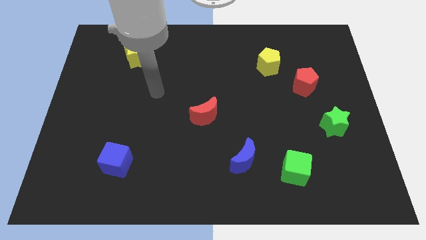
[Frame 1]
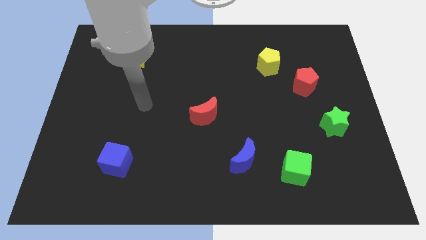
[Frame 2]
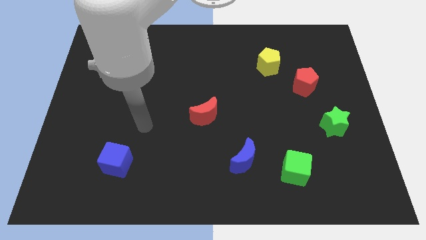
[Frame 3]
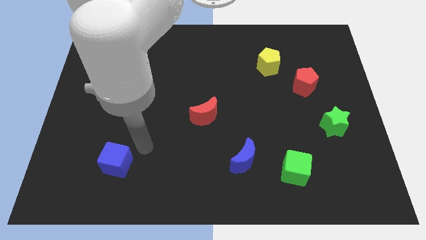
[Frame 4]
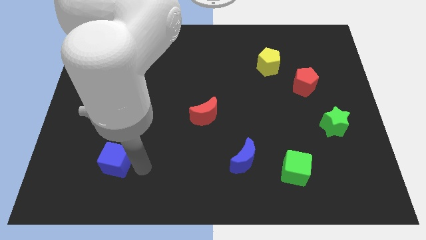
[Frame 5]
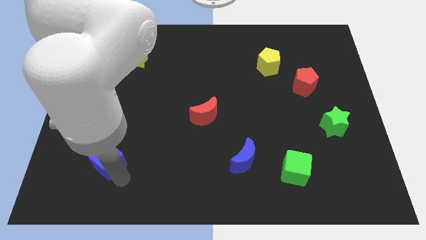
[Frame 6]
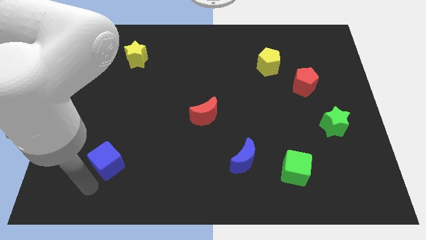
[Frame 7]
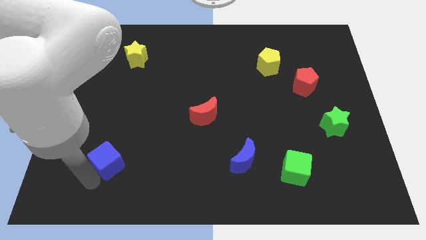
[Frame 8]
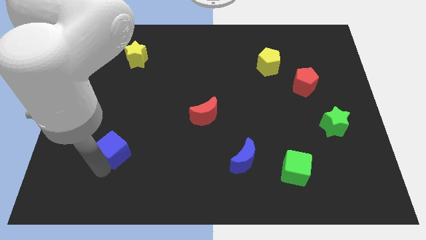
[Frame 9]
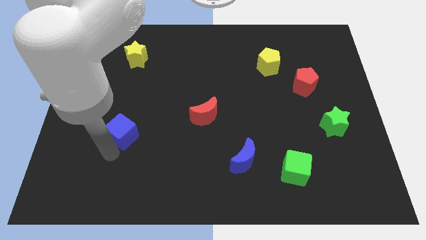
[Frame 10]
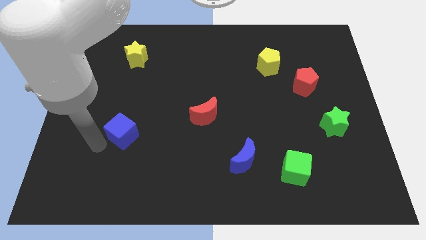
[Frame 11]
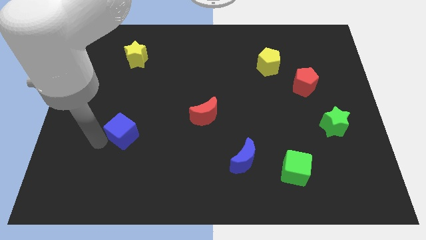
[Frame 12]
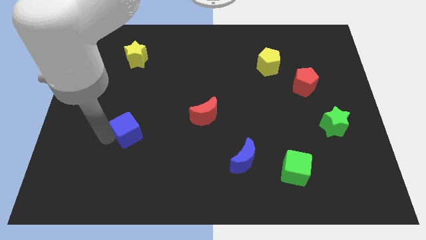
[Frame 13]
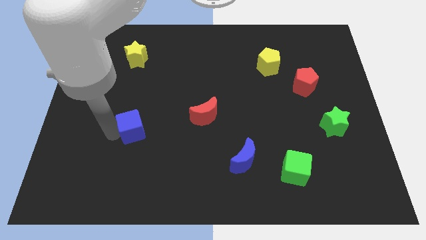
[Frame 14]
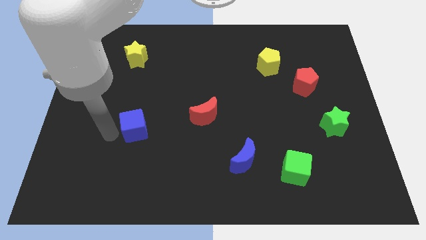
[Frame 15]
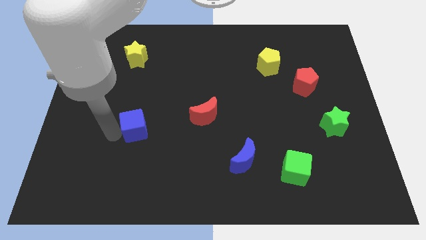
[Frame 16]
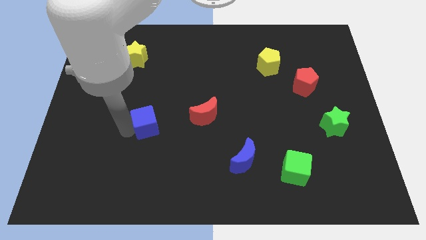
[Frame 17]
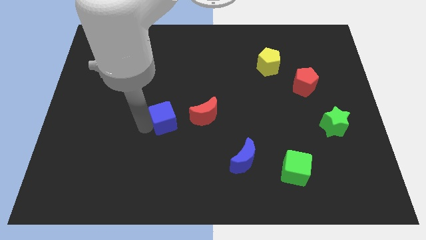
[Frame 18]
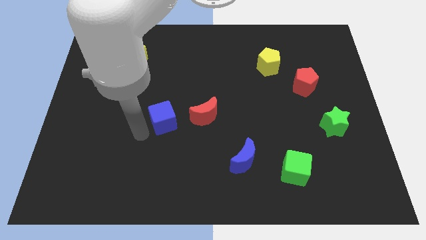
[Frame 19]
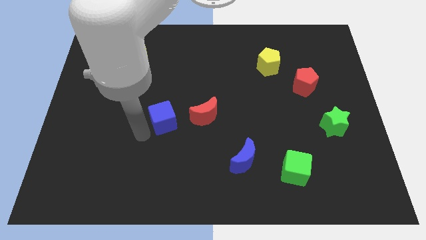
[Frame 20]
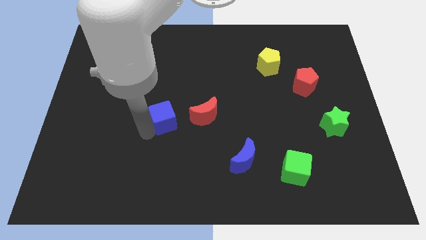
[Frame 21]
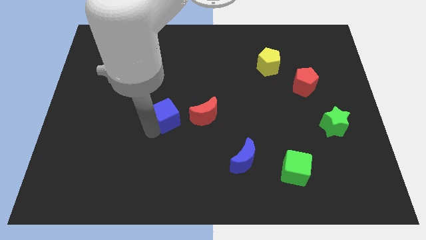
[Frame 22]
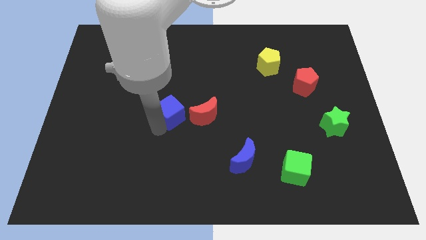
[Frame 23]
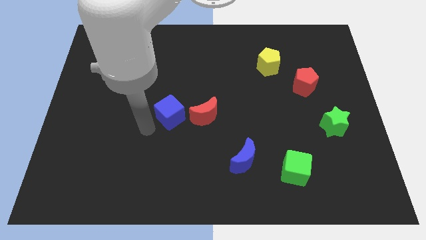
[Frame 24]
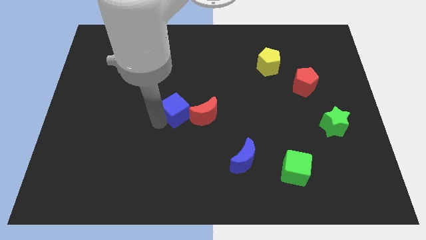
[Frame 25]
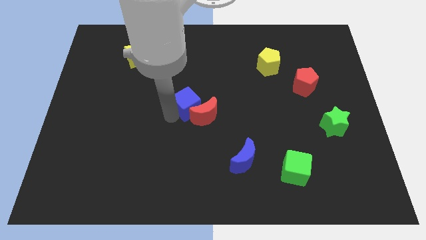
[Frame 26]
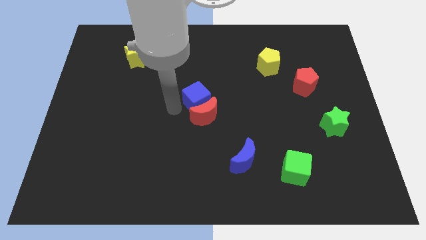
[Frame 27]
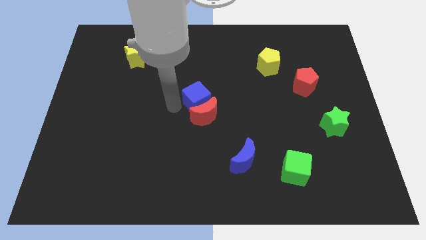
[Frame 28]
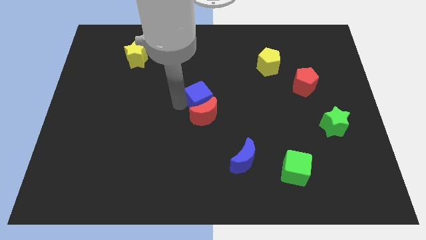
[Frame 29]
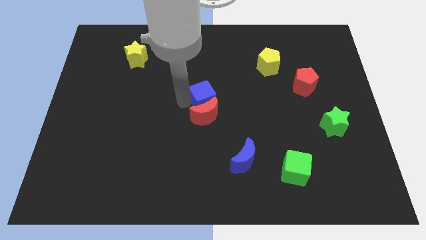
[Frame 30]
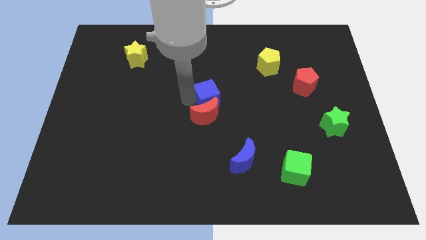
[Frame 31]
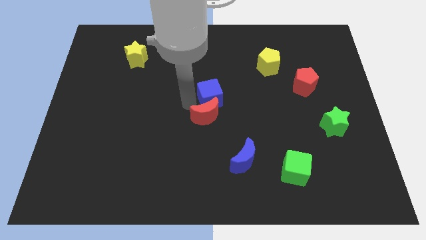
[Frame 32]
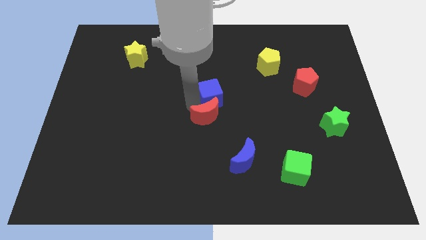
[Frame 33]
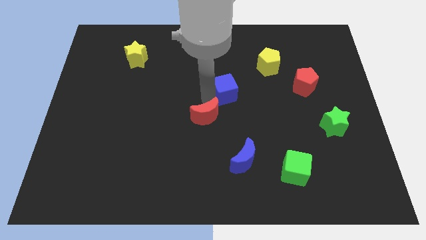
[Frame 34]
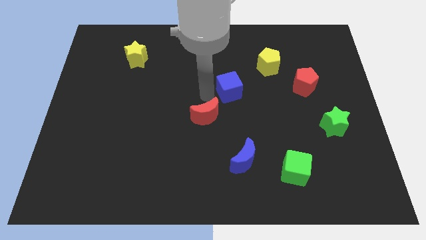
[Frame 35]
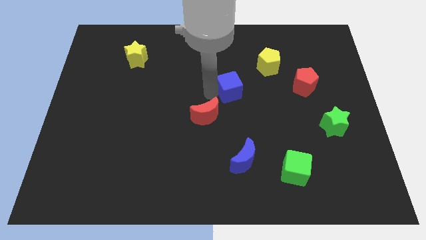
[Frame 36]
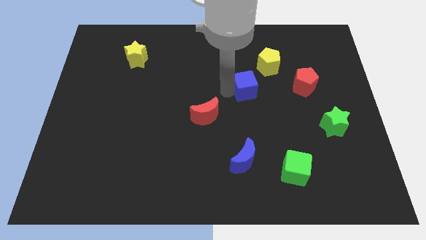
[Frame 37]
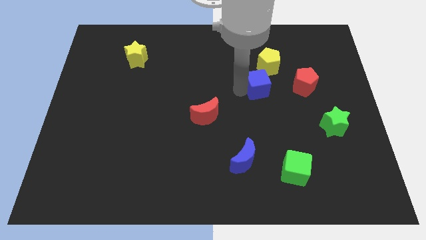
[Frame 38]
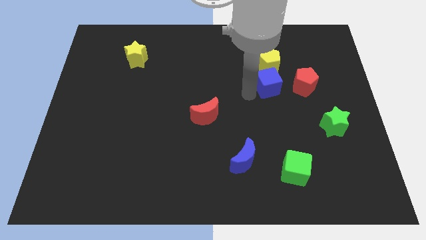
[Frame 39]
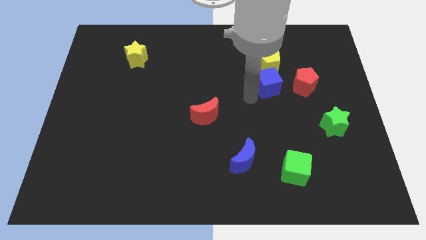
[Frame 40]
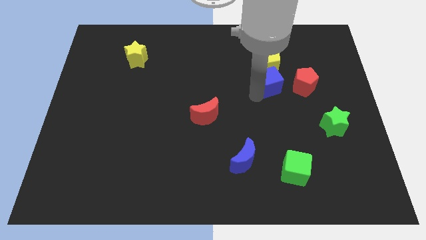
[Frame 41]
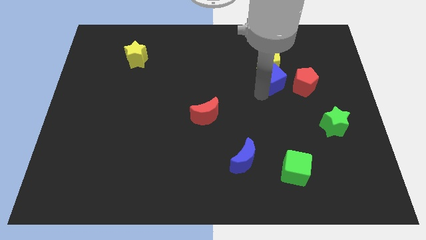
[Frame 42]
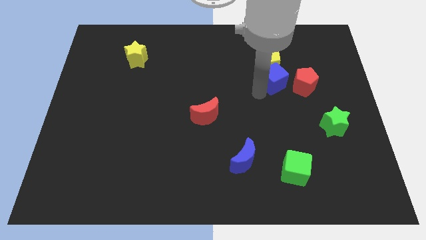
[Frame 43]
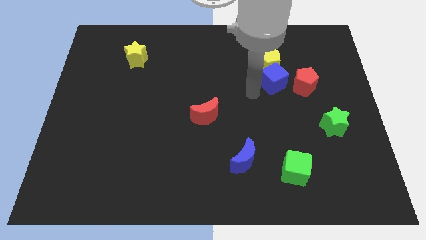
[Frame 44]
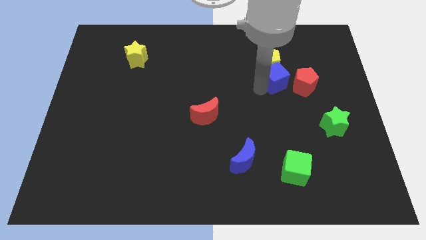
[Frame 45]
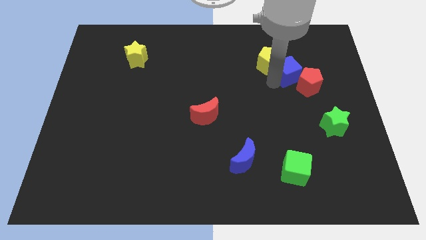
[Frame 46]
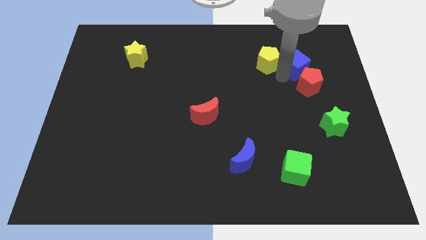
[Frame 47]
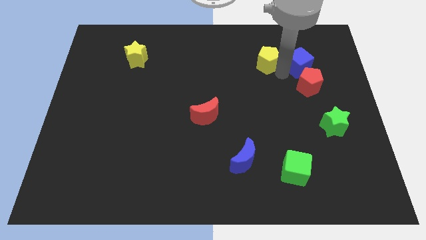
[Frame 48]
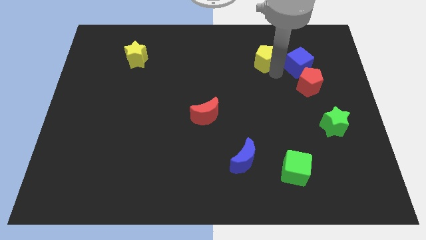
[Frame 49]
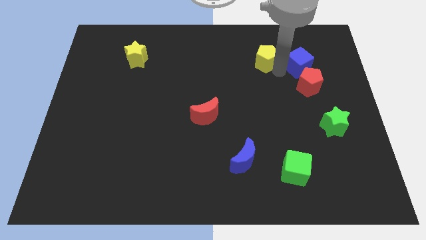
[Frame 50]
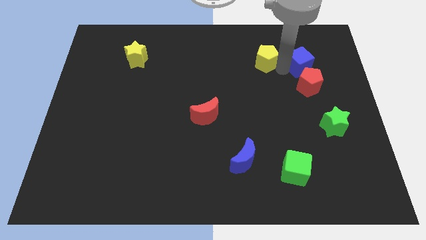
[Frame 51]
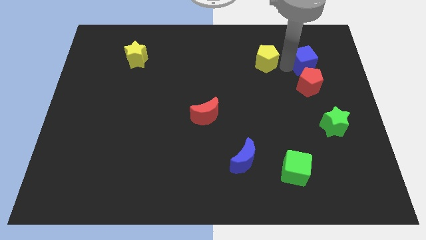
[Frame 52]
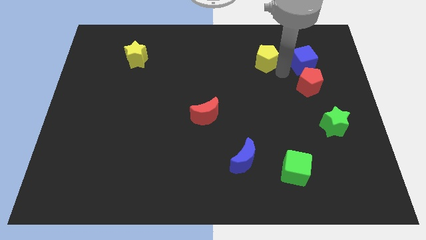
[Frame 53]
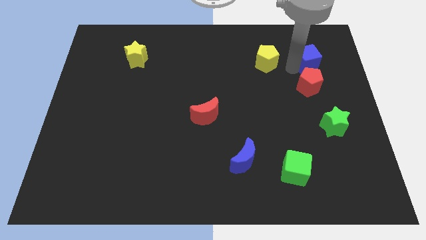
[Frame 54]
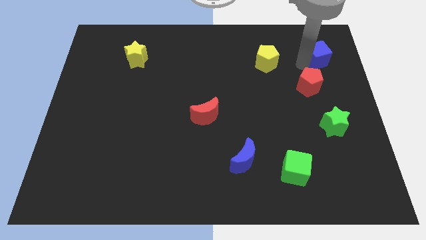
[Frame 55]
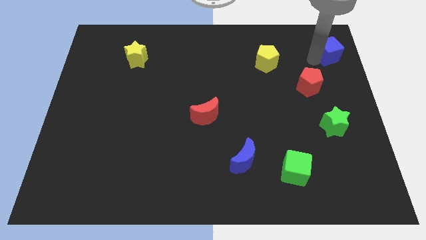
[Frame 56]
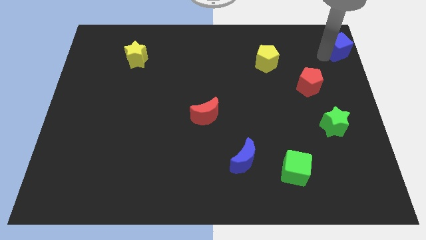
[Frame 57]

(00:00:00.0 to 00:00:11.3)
push the blue cube to the top right of the board
